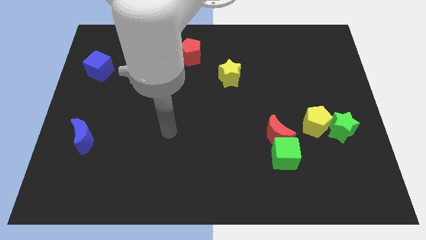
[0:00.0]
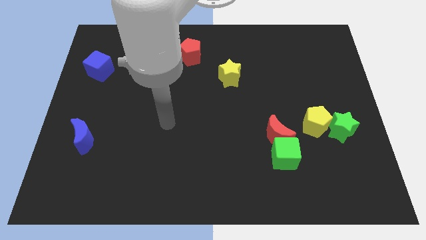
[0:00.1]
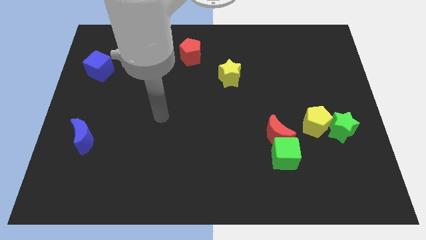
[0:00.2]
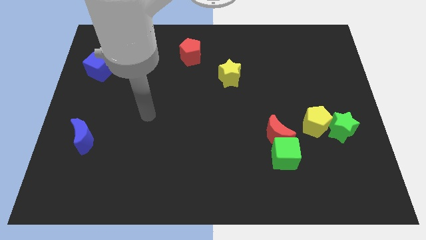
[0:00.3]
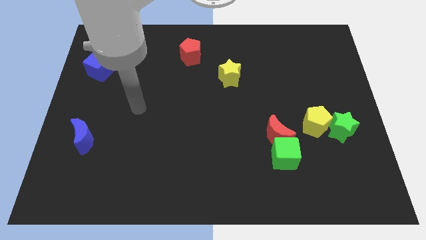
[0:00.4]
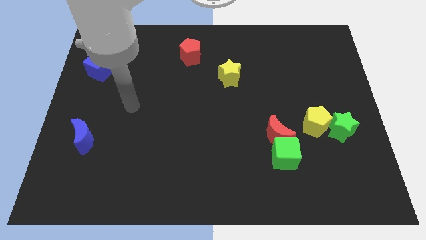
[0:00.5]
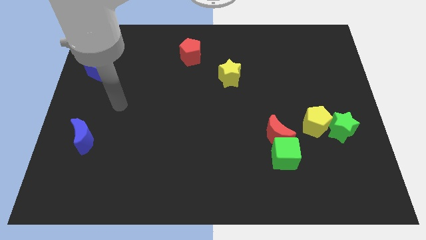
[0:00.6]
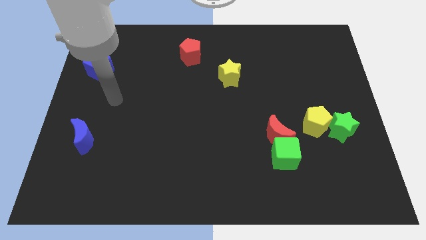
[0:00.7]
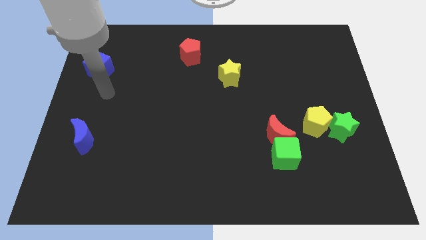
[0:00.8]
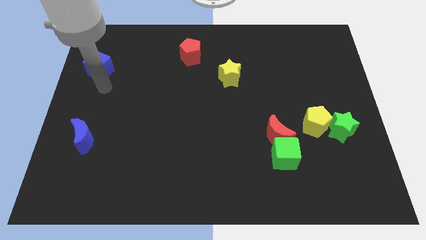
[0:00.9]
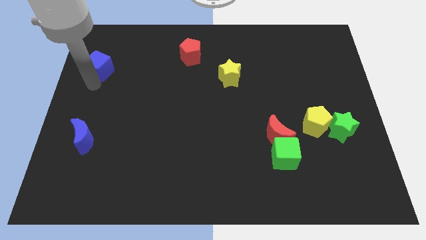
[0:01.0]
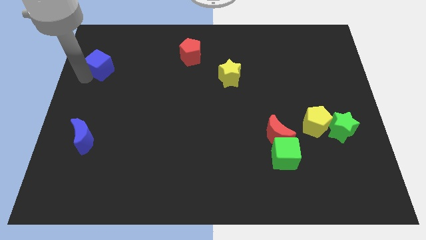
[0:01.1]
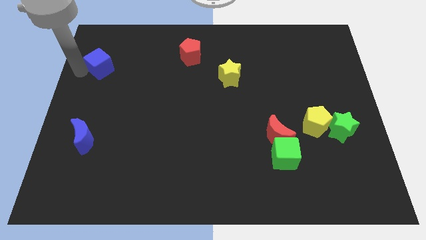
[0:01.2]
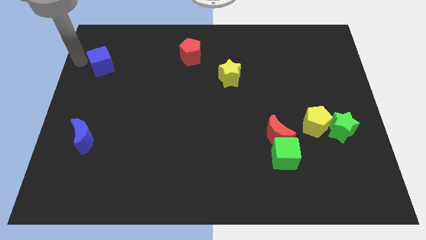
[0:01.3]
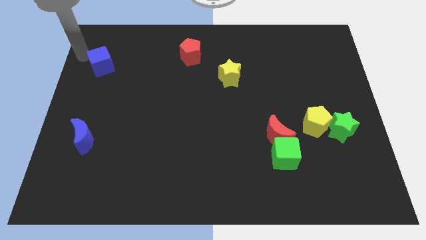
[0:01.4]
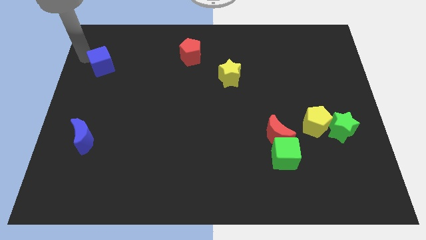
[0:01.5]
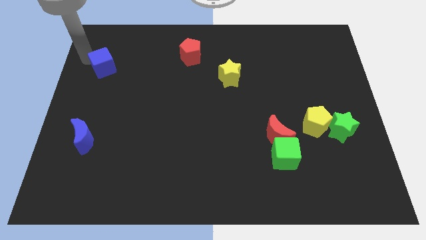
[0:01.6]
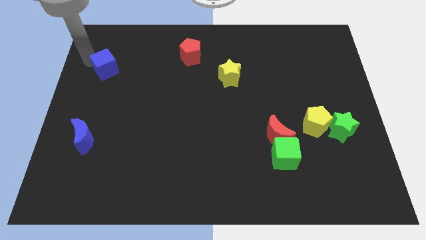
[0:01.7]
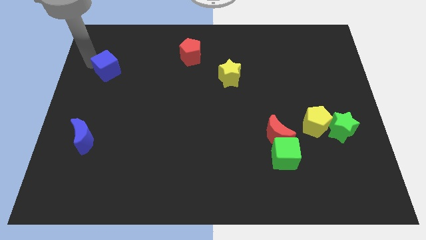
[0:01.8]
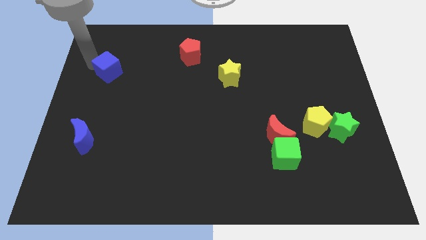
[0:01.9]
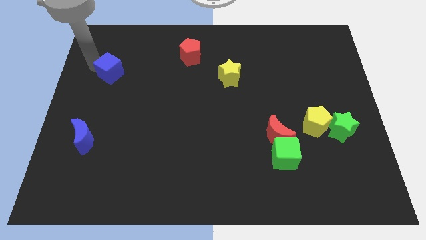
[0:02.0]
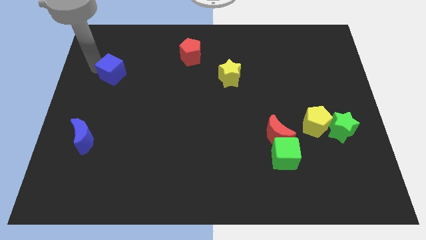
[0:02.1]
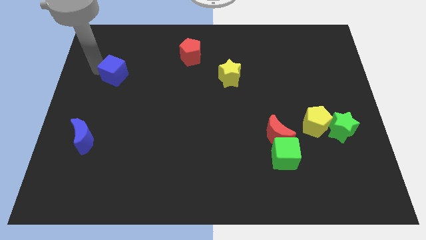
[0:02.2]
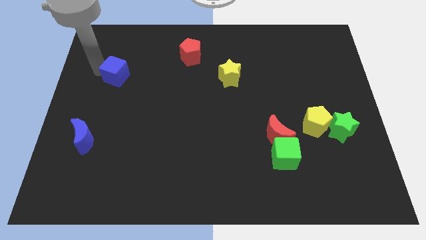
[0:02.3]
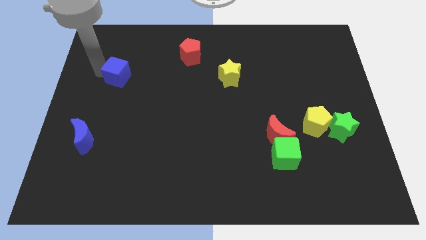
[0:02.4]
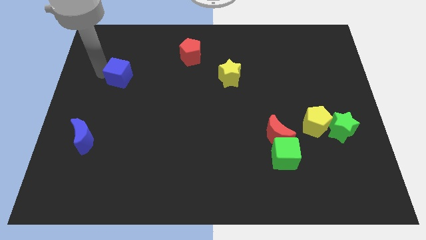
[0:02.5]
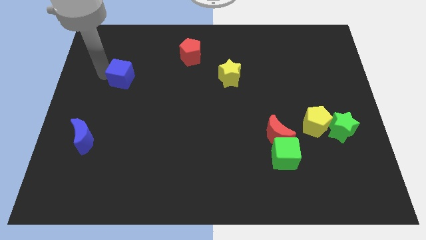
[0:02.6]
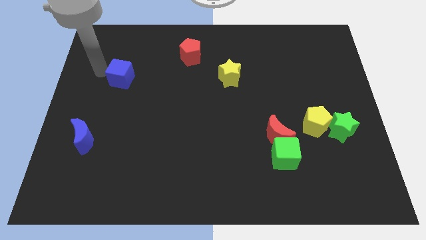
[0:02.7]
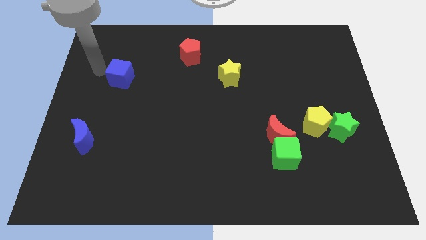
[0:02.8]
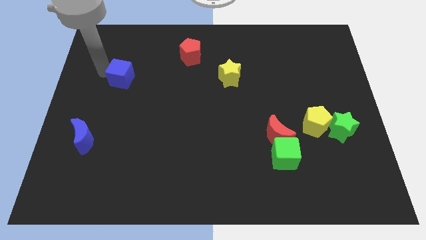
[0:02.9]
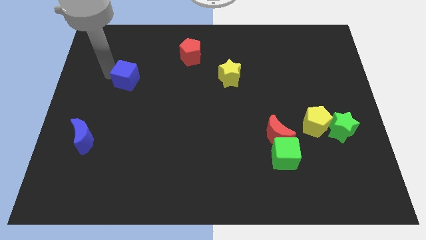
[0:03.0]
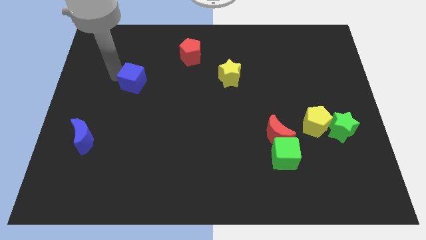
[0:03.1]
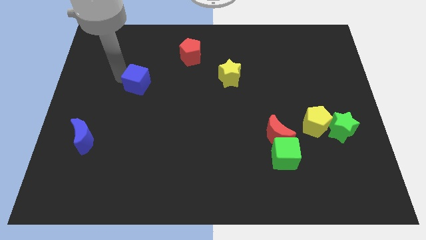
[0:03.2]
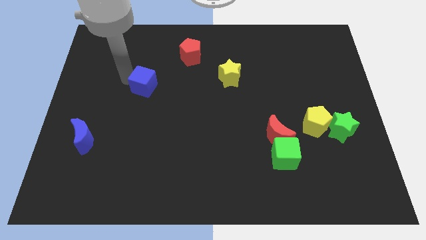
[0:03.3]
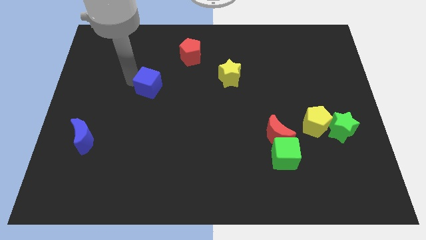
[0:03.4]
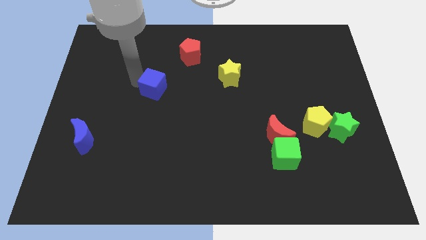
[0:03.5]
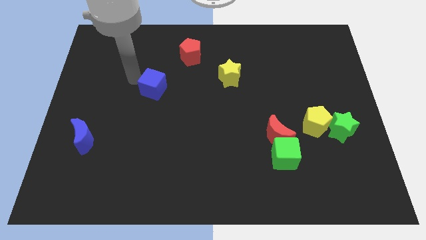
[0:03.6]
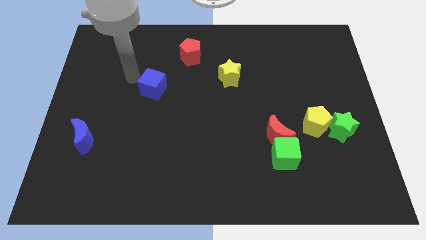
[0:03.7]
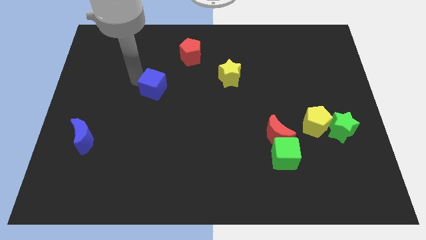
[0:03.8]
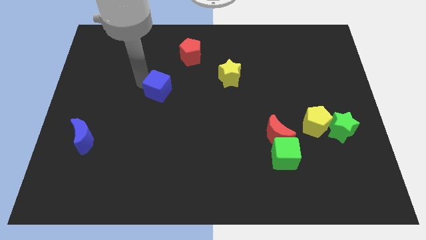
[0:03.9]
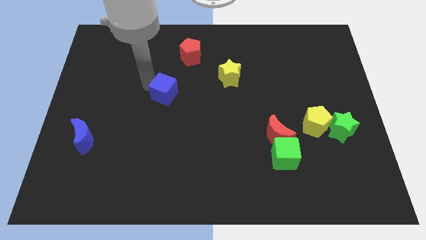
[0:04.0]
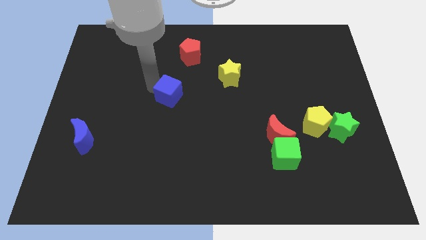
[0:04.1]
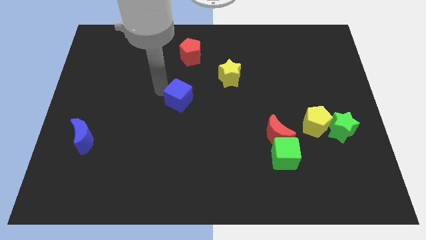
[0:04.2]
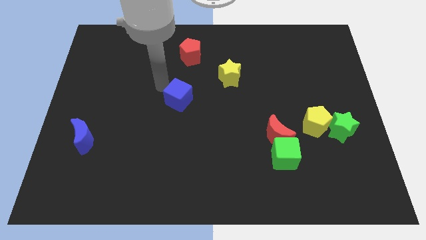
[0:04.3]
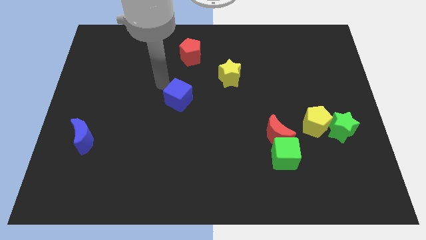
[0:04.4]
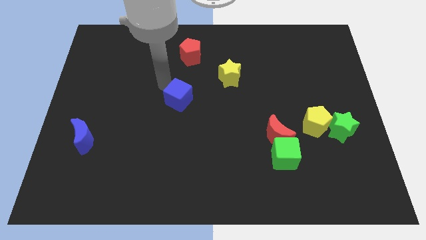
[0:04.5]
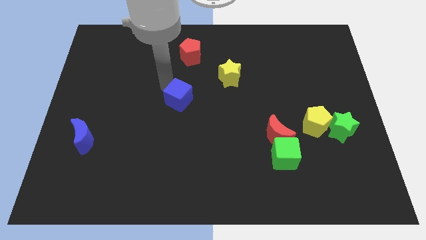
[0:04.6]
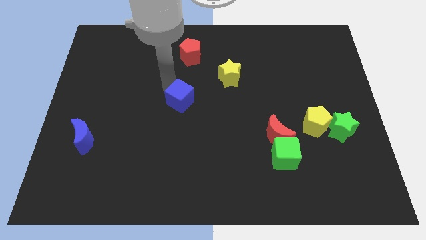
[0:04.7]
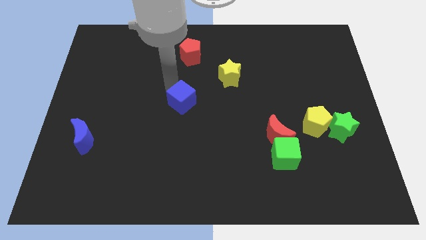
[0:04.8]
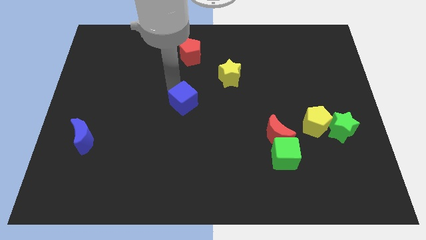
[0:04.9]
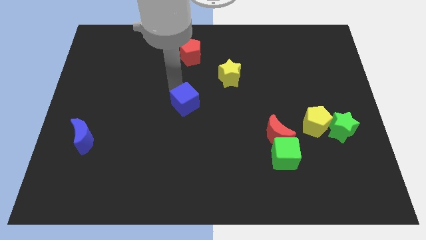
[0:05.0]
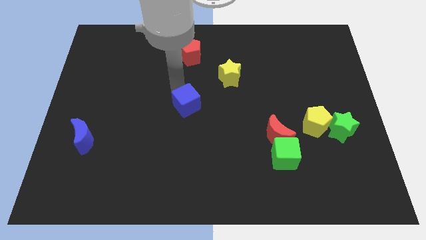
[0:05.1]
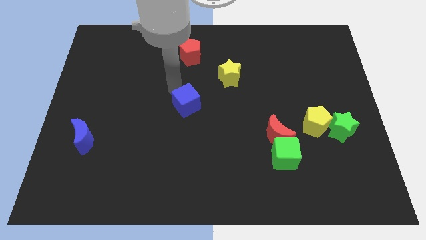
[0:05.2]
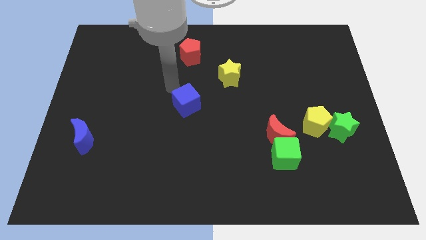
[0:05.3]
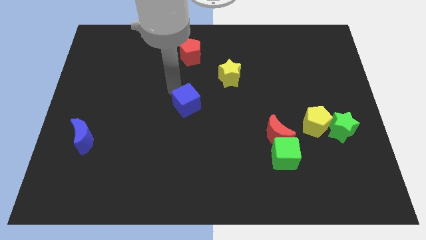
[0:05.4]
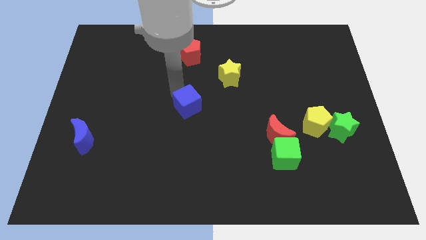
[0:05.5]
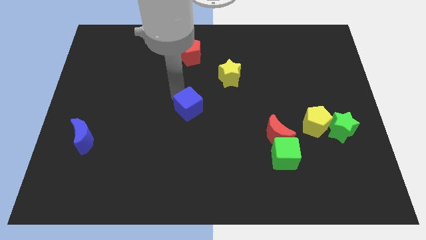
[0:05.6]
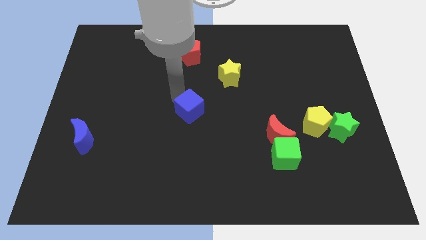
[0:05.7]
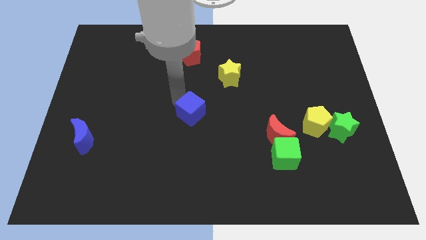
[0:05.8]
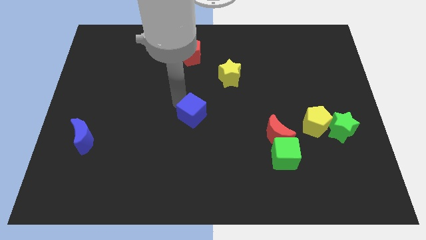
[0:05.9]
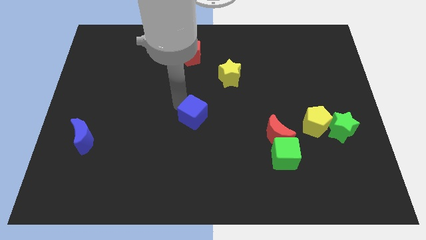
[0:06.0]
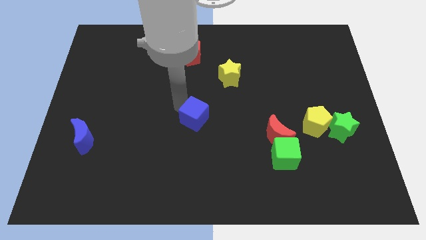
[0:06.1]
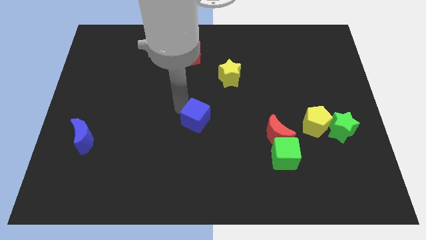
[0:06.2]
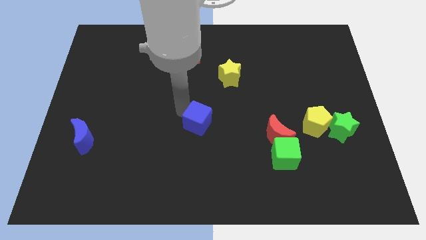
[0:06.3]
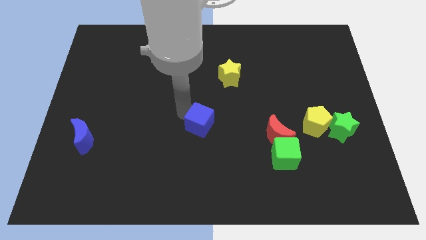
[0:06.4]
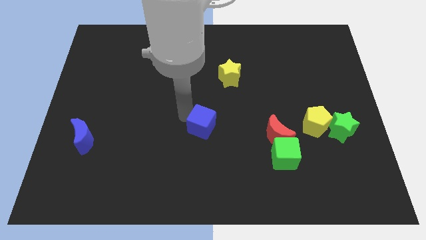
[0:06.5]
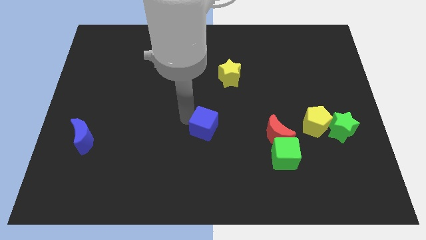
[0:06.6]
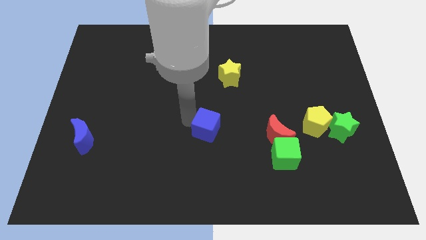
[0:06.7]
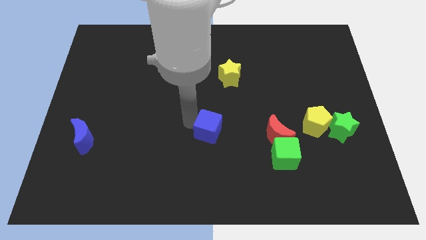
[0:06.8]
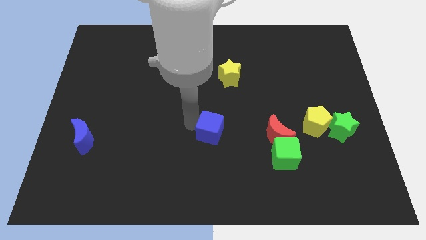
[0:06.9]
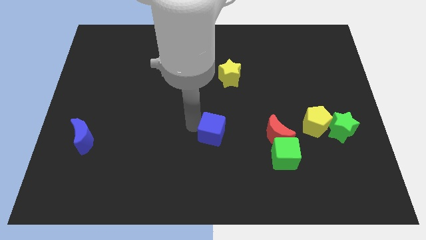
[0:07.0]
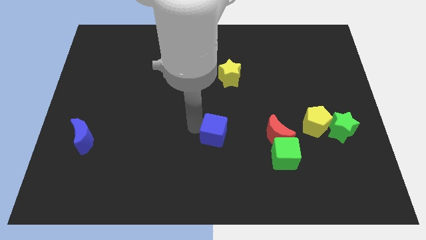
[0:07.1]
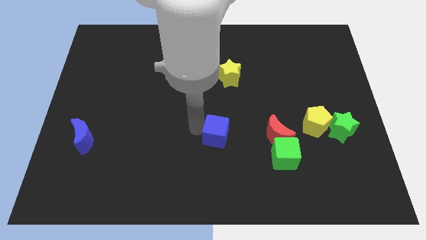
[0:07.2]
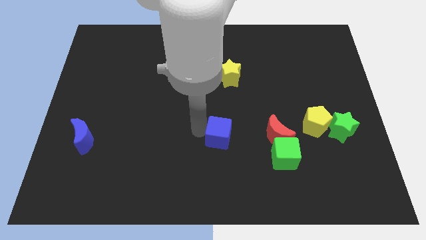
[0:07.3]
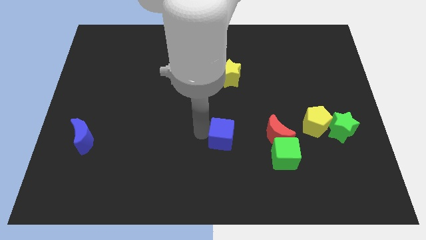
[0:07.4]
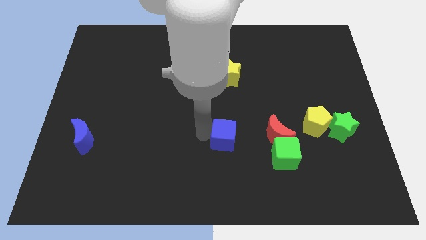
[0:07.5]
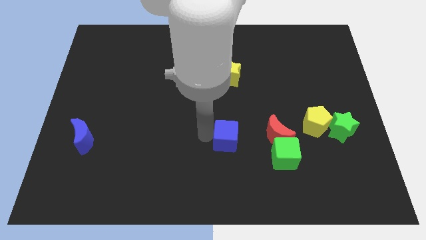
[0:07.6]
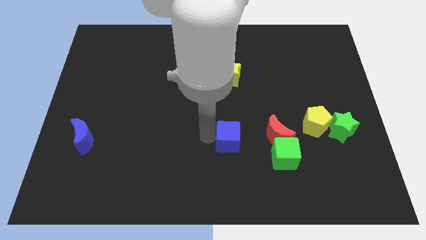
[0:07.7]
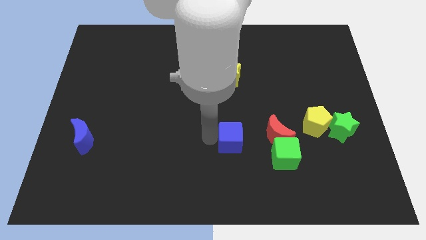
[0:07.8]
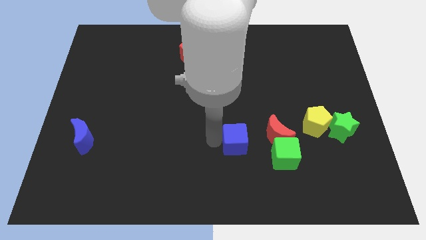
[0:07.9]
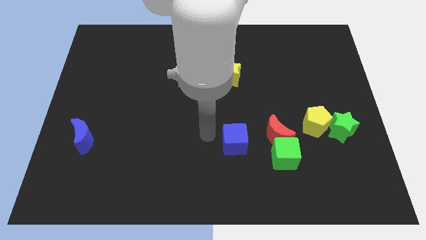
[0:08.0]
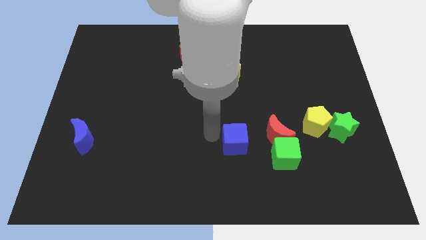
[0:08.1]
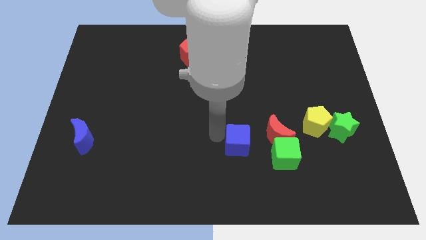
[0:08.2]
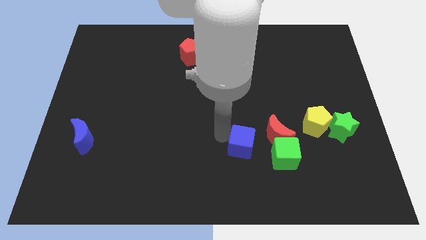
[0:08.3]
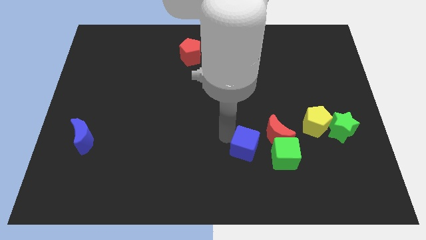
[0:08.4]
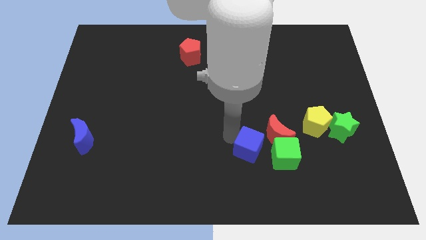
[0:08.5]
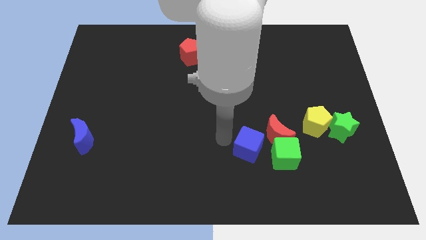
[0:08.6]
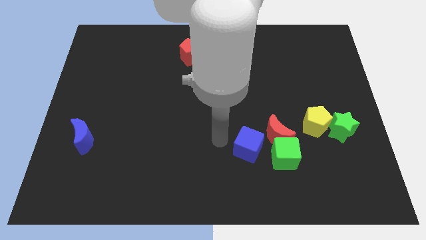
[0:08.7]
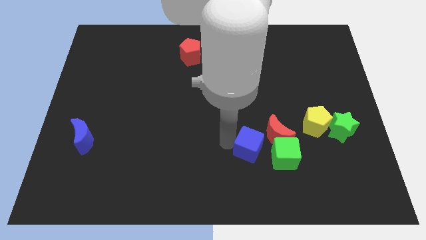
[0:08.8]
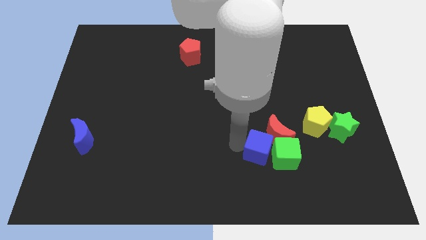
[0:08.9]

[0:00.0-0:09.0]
slide the blue cube towards the green cube
